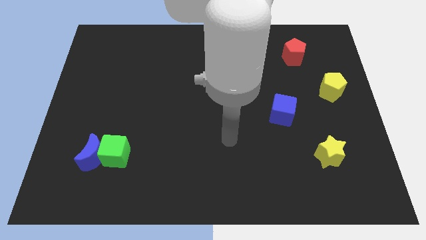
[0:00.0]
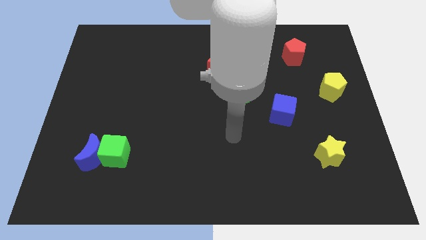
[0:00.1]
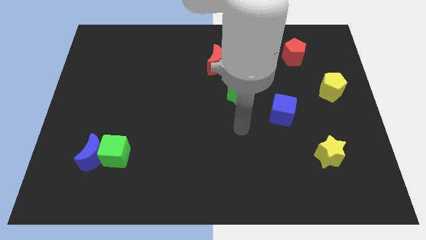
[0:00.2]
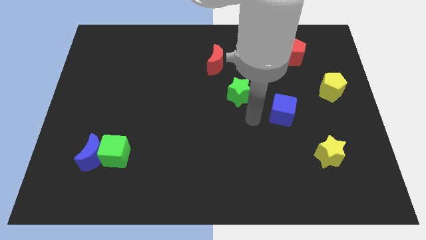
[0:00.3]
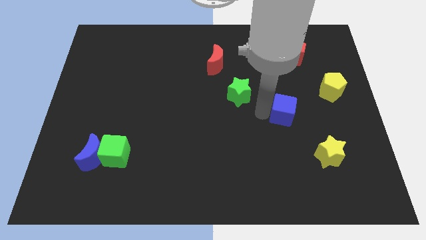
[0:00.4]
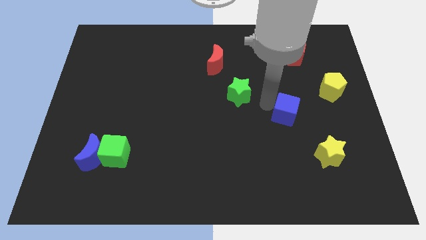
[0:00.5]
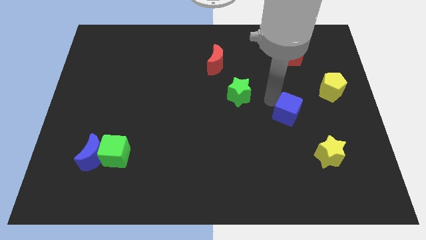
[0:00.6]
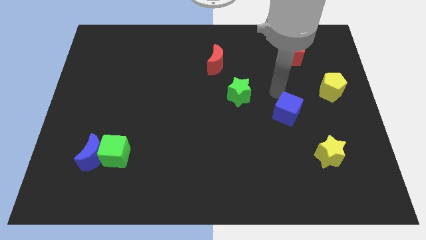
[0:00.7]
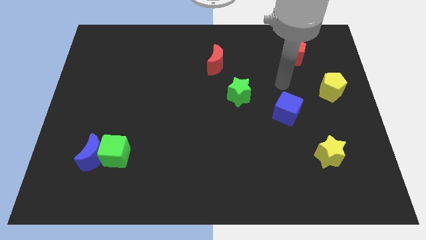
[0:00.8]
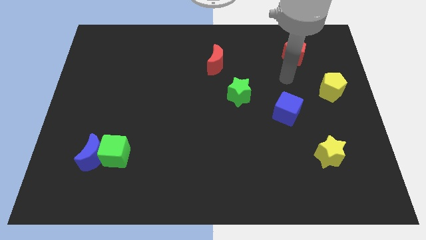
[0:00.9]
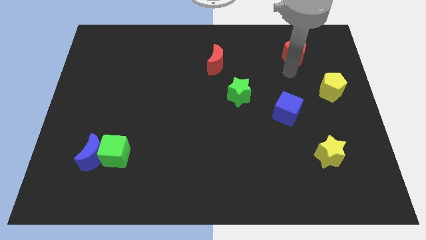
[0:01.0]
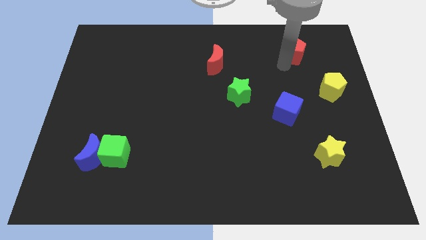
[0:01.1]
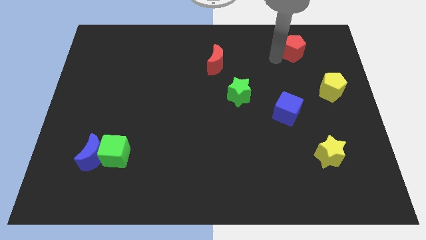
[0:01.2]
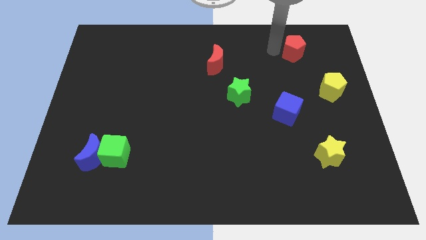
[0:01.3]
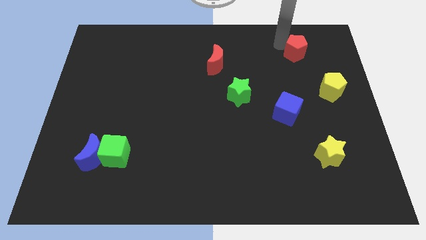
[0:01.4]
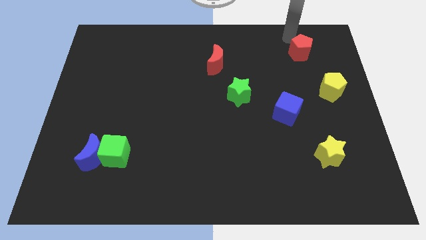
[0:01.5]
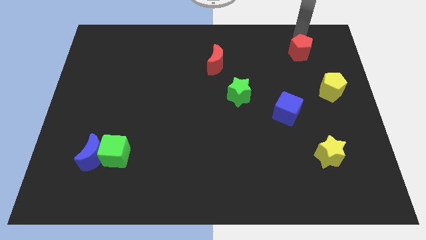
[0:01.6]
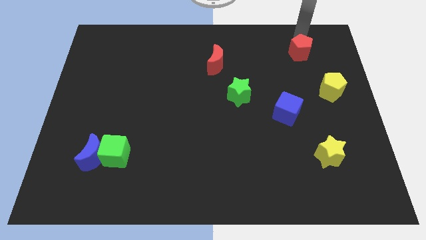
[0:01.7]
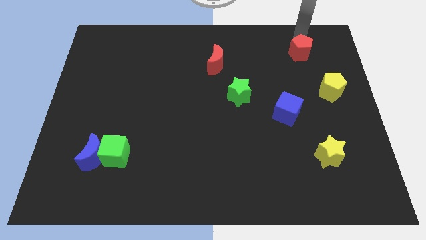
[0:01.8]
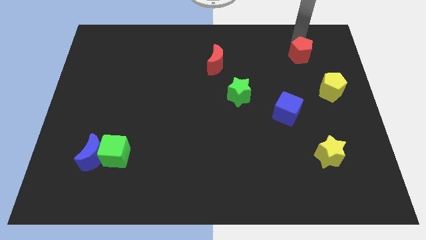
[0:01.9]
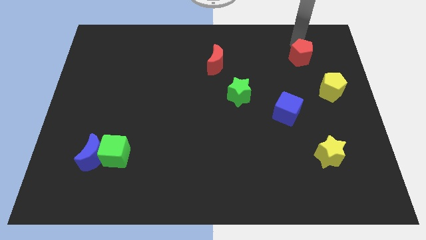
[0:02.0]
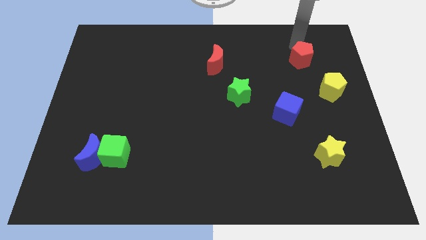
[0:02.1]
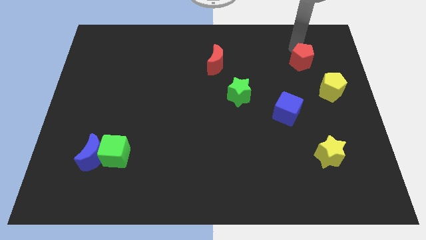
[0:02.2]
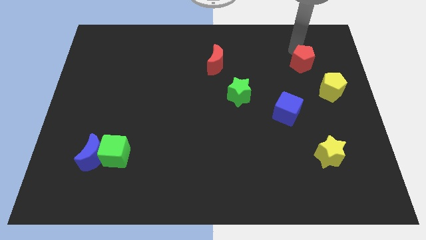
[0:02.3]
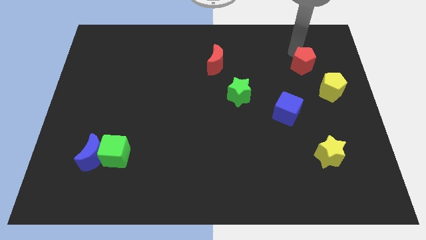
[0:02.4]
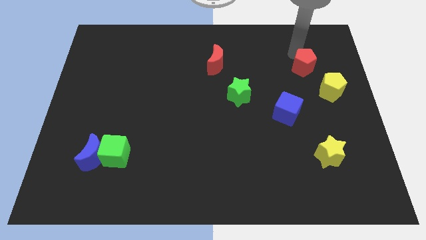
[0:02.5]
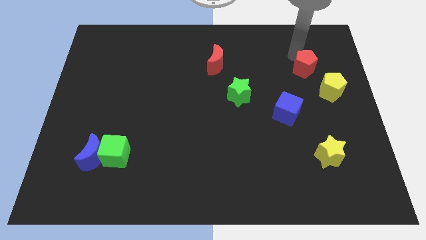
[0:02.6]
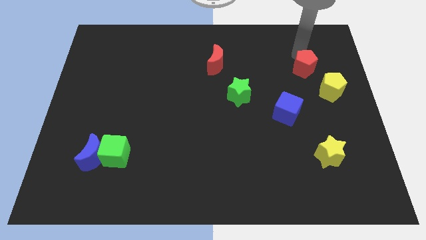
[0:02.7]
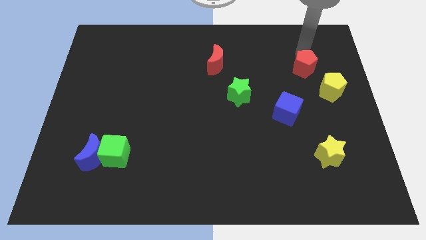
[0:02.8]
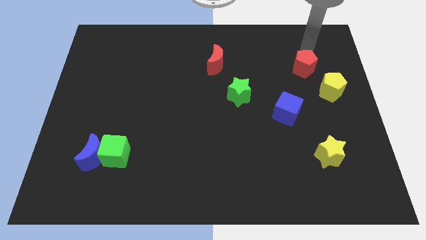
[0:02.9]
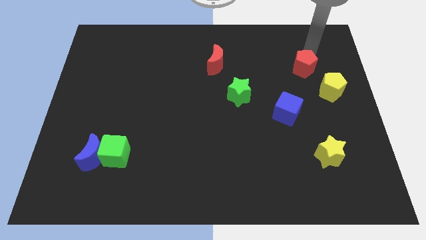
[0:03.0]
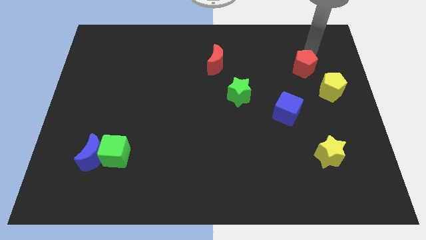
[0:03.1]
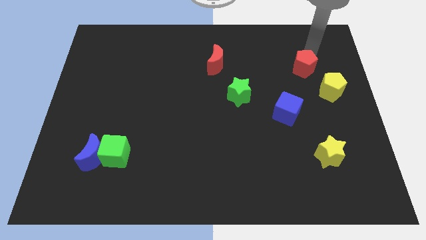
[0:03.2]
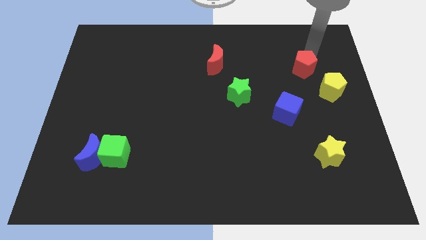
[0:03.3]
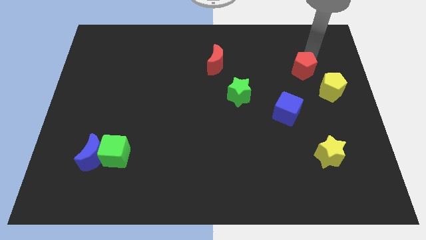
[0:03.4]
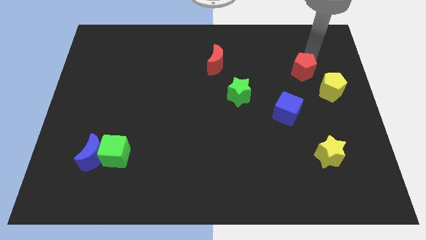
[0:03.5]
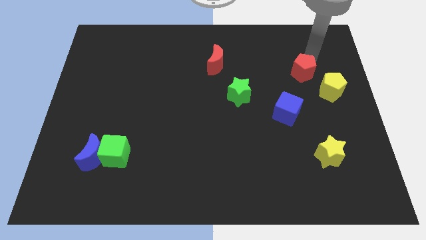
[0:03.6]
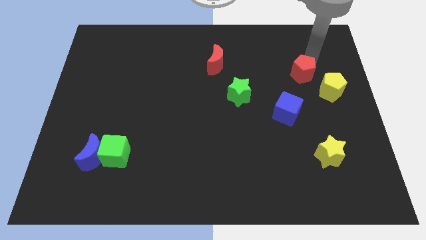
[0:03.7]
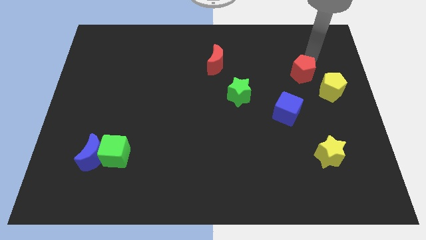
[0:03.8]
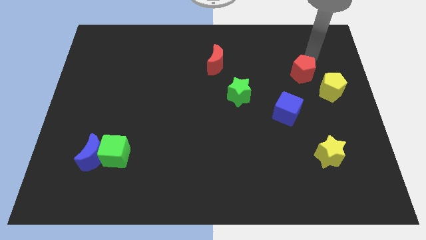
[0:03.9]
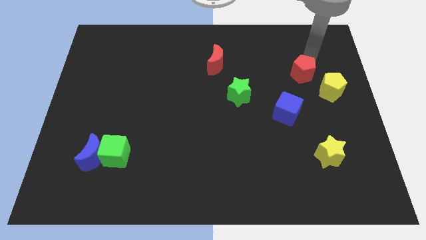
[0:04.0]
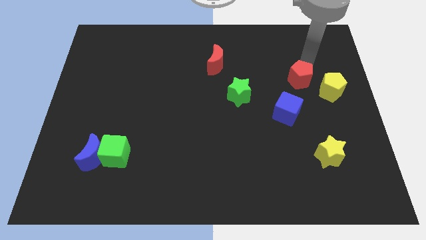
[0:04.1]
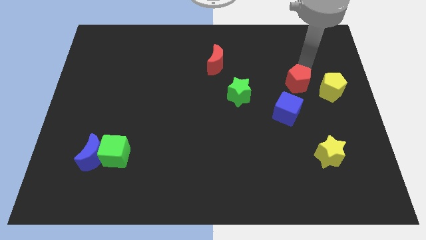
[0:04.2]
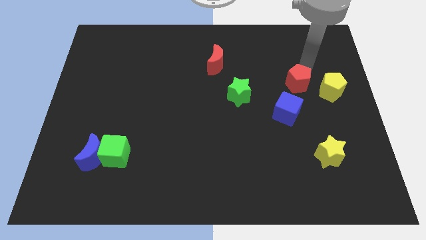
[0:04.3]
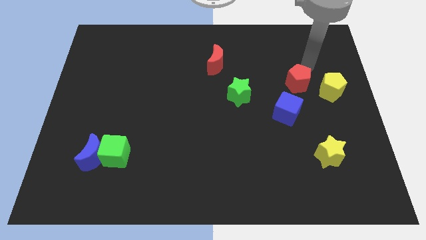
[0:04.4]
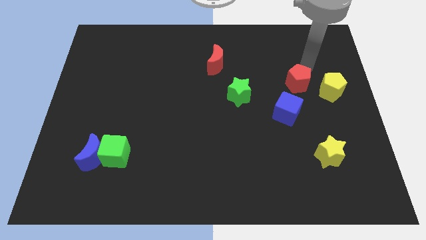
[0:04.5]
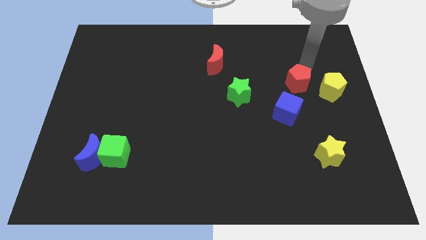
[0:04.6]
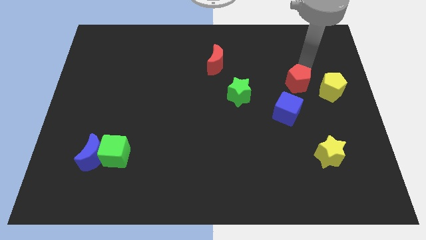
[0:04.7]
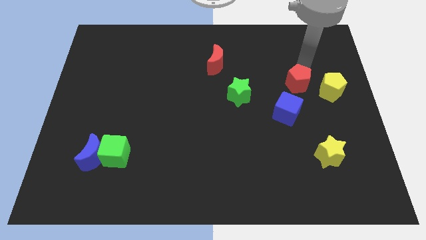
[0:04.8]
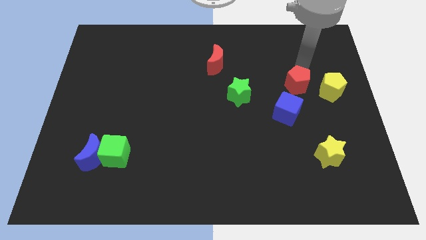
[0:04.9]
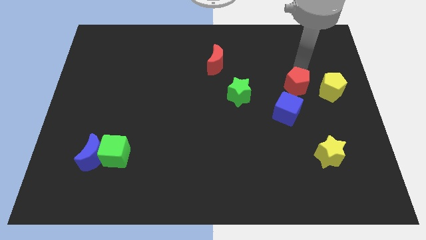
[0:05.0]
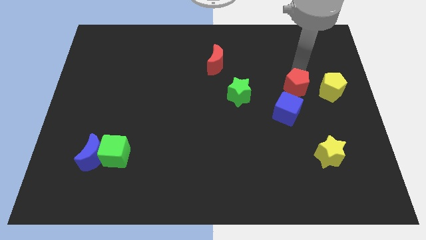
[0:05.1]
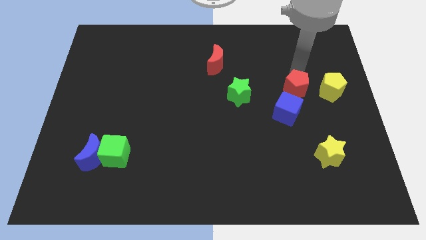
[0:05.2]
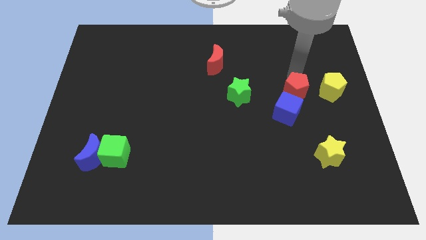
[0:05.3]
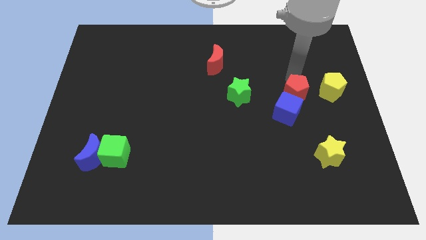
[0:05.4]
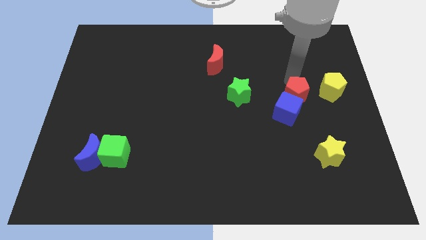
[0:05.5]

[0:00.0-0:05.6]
push the red pentagon towards the blue cube

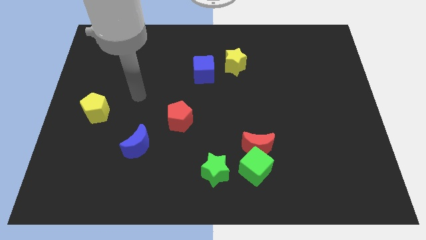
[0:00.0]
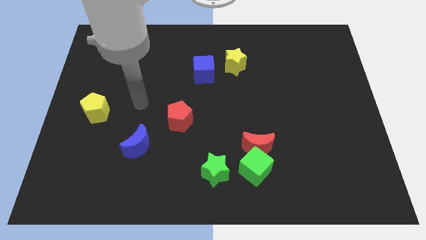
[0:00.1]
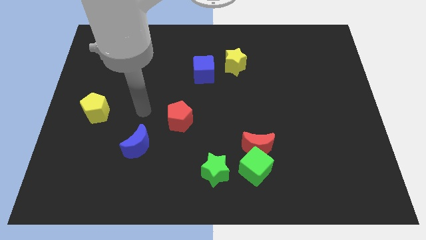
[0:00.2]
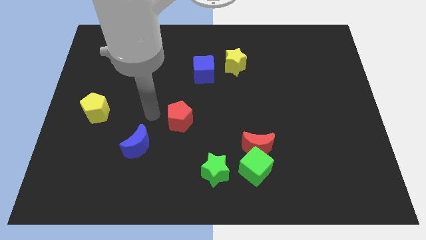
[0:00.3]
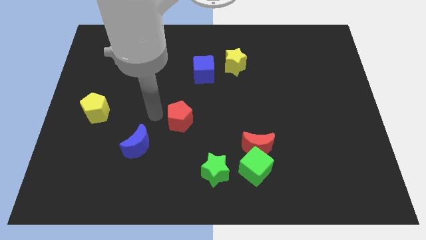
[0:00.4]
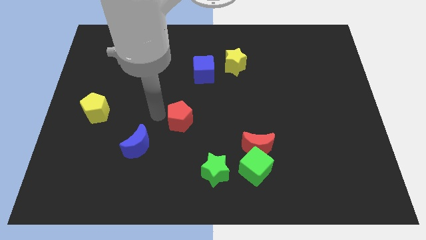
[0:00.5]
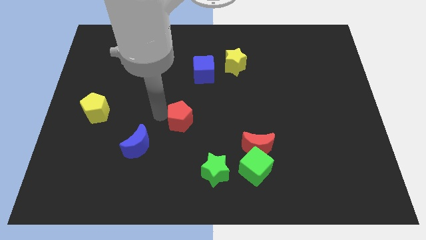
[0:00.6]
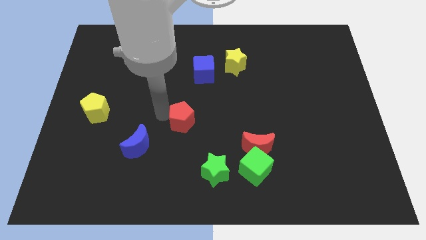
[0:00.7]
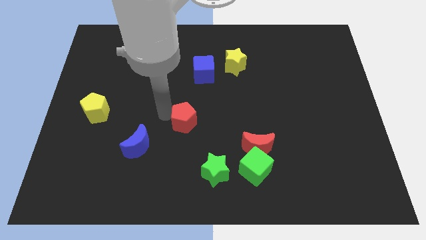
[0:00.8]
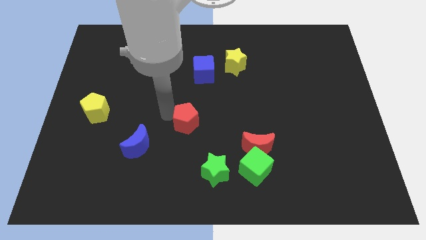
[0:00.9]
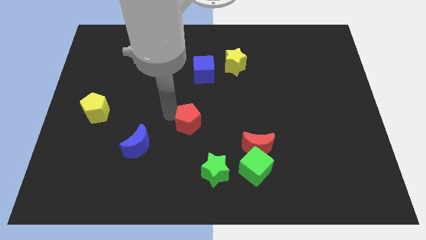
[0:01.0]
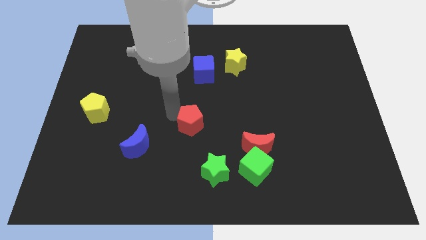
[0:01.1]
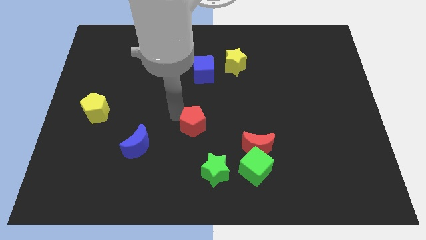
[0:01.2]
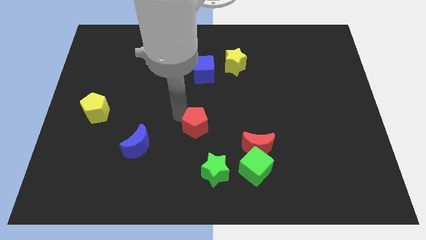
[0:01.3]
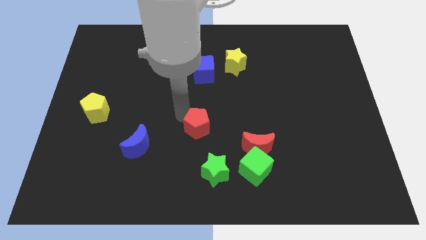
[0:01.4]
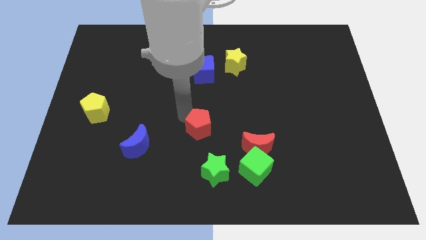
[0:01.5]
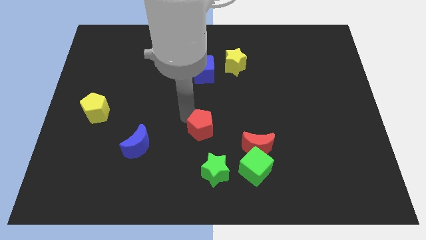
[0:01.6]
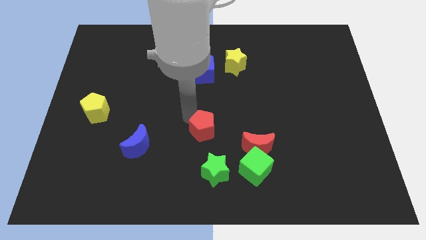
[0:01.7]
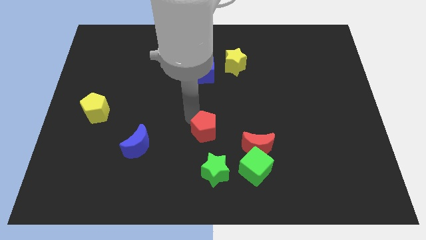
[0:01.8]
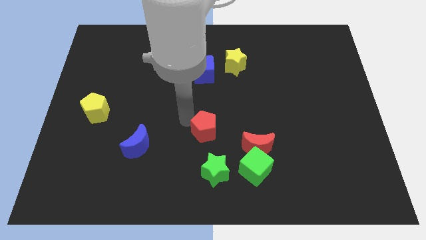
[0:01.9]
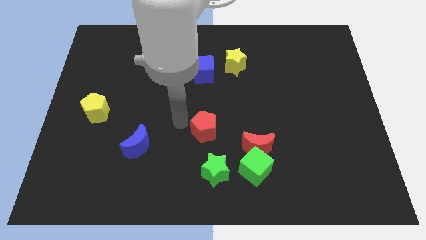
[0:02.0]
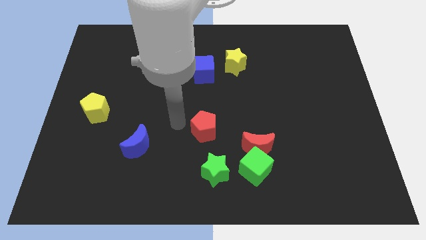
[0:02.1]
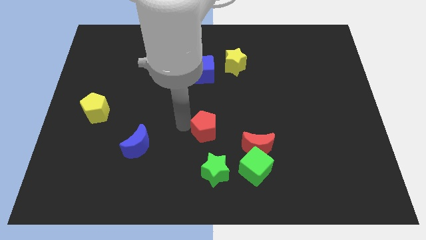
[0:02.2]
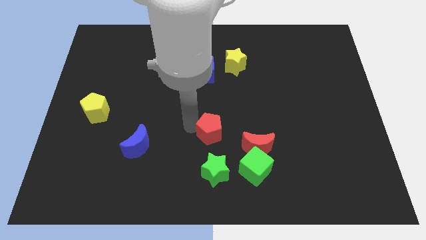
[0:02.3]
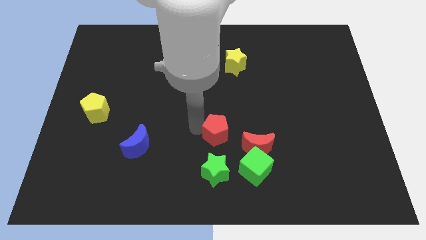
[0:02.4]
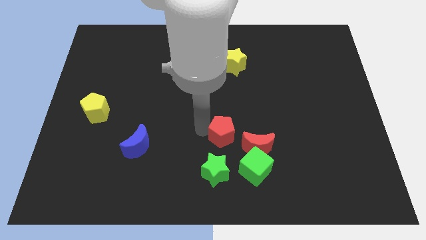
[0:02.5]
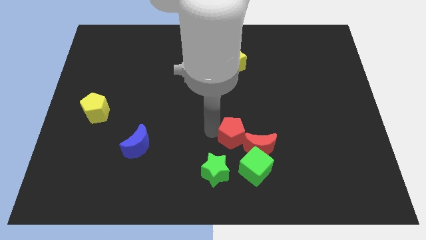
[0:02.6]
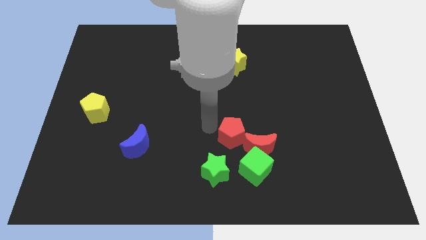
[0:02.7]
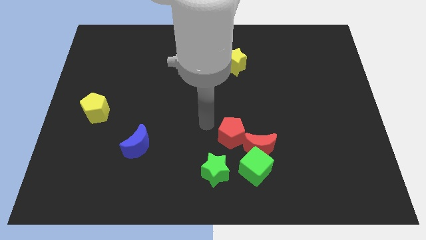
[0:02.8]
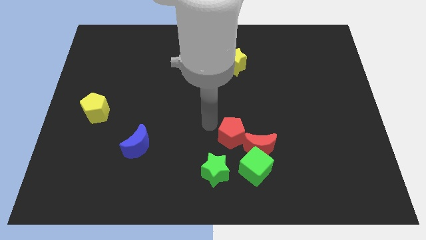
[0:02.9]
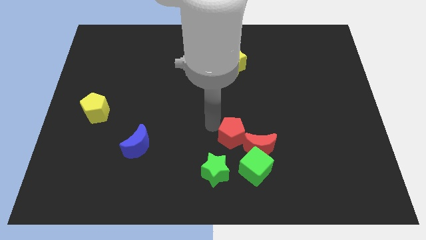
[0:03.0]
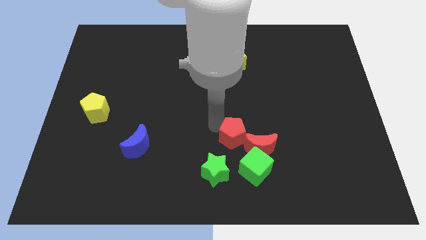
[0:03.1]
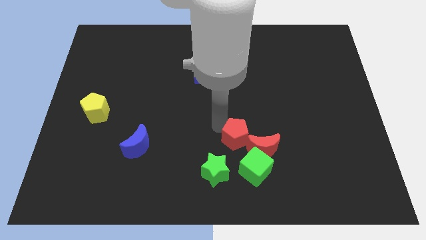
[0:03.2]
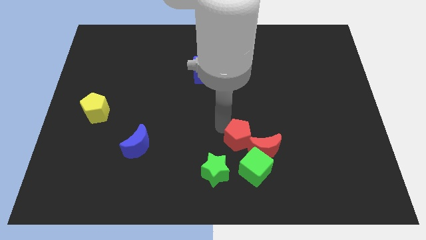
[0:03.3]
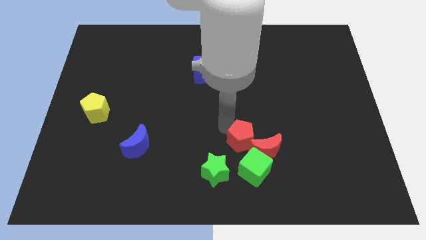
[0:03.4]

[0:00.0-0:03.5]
put the red pentagon next to the red moon
